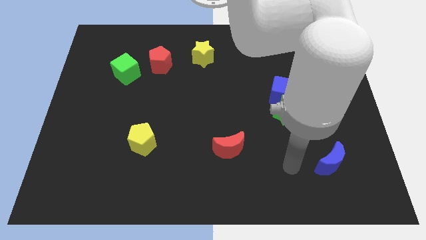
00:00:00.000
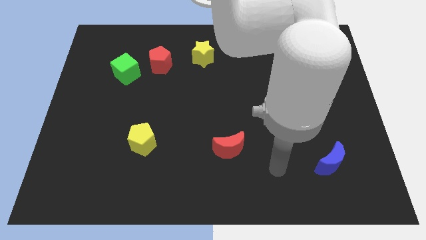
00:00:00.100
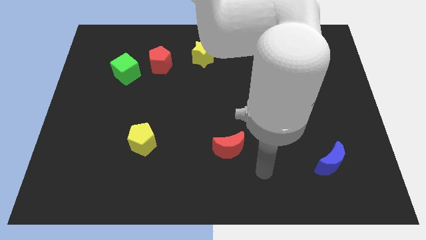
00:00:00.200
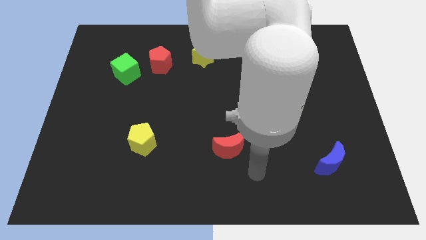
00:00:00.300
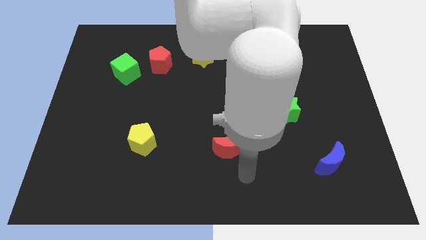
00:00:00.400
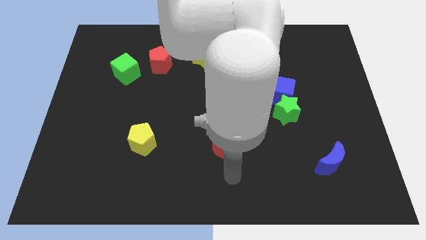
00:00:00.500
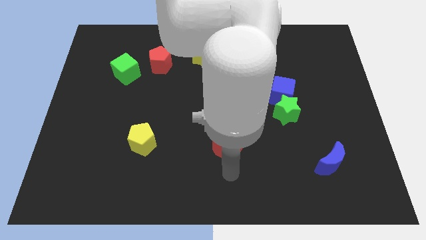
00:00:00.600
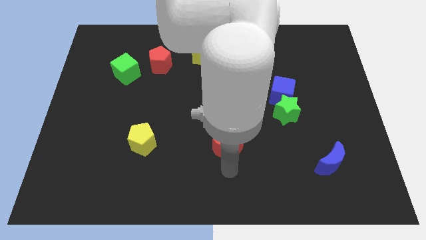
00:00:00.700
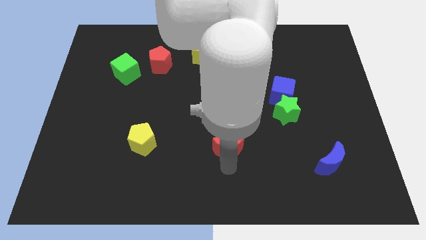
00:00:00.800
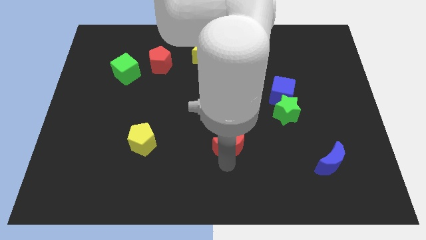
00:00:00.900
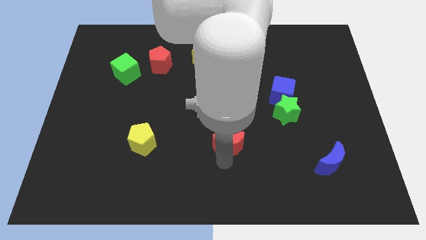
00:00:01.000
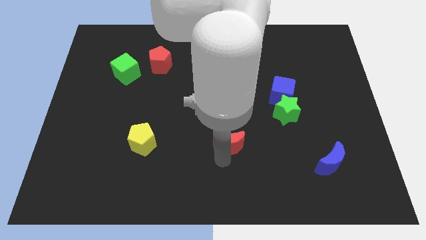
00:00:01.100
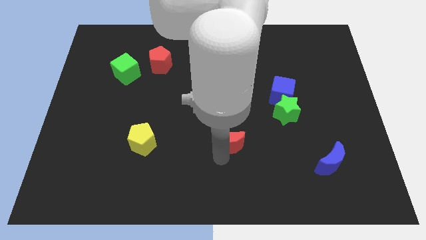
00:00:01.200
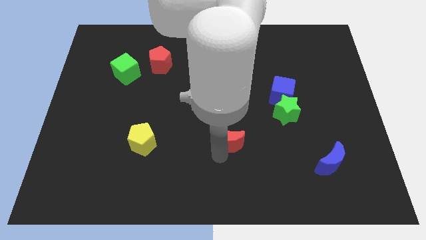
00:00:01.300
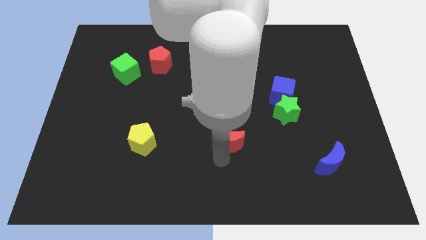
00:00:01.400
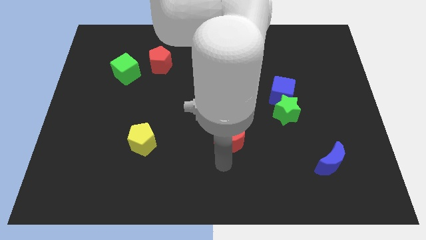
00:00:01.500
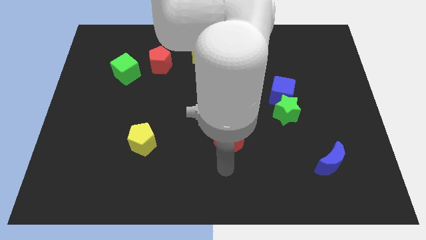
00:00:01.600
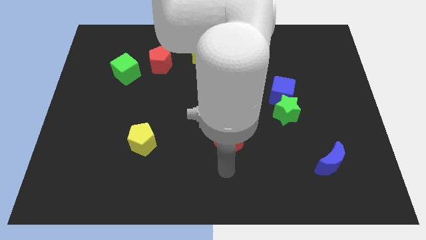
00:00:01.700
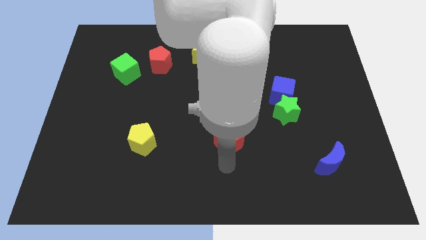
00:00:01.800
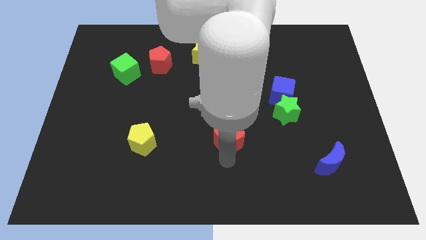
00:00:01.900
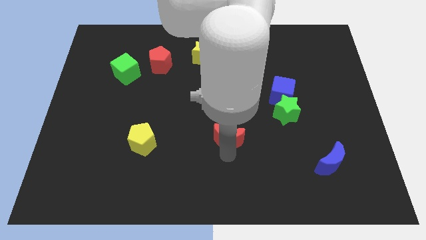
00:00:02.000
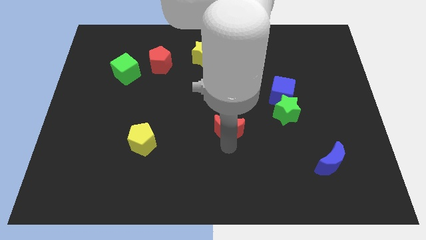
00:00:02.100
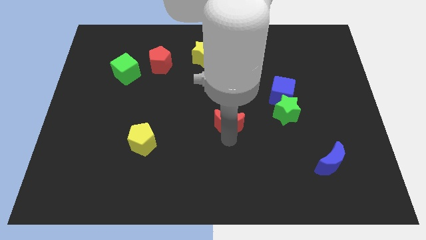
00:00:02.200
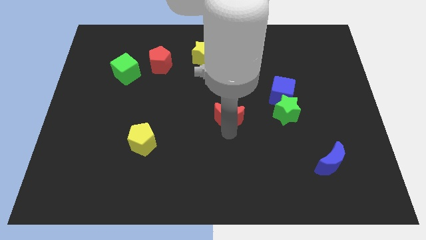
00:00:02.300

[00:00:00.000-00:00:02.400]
push the red moon a little bit upwards

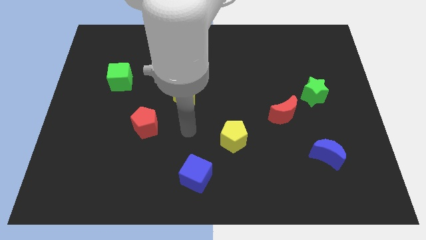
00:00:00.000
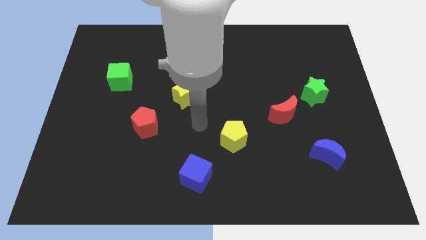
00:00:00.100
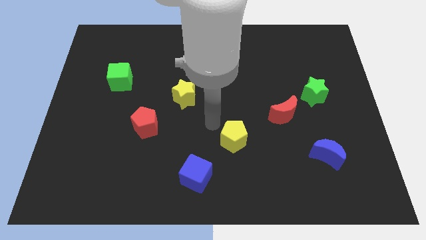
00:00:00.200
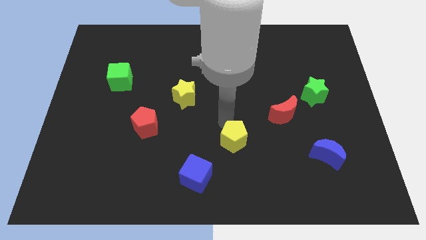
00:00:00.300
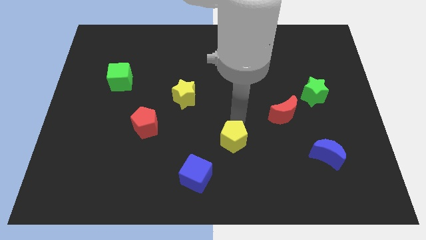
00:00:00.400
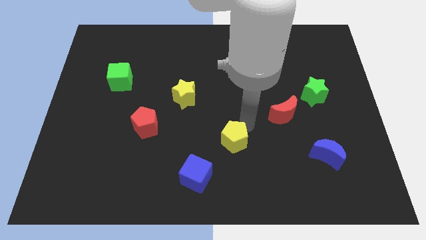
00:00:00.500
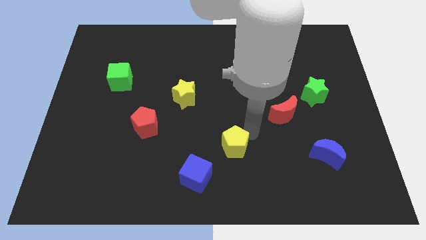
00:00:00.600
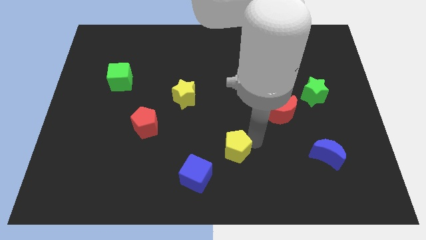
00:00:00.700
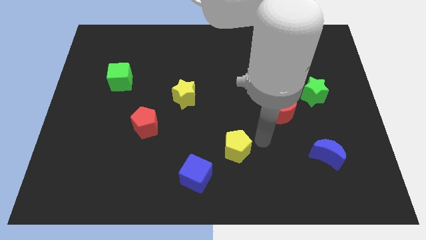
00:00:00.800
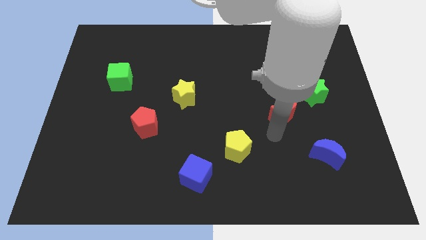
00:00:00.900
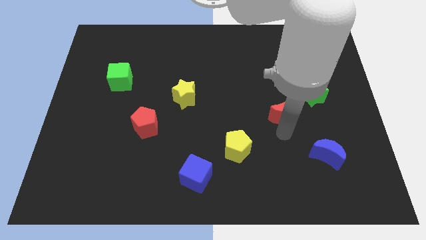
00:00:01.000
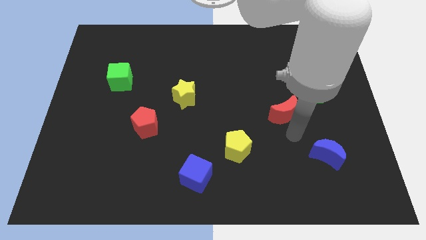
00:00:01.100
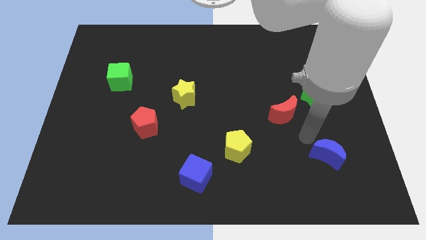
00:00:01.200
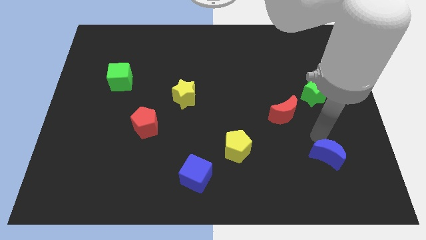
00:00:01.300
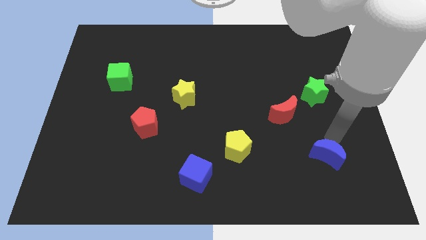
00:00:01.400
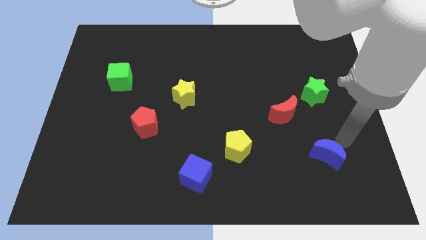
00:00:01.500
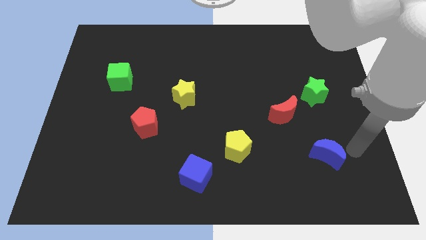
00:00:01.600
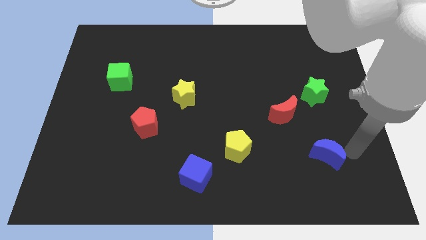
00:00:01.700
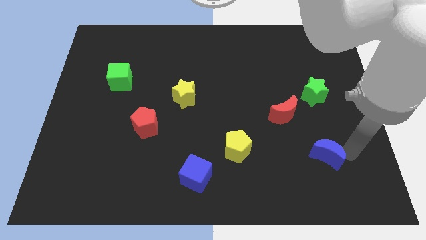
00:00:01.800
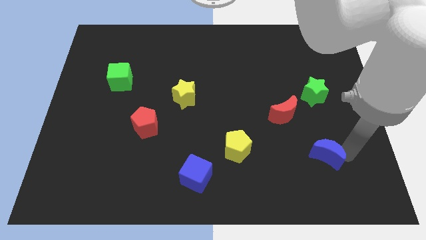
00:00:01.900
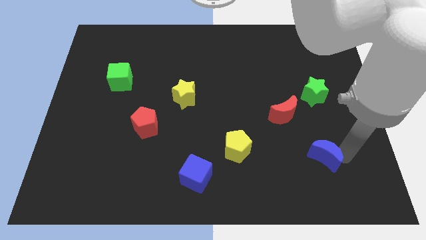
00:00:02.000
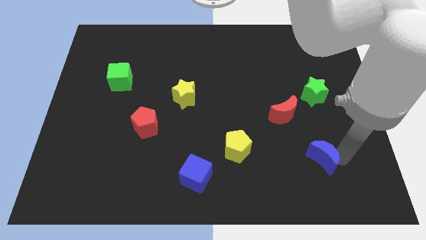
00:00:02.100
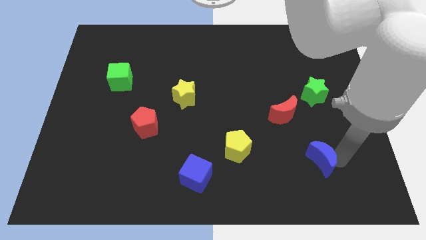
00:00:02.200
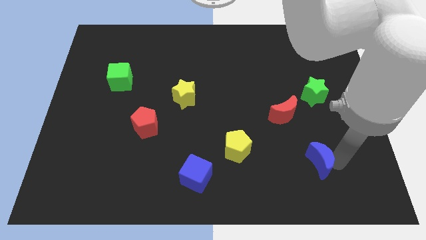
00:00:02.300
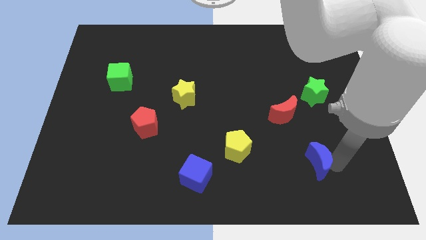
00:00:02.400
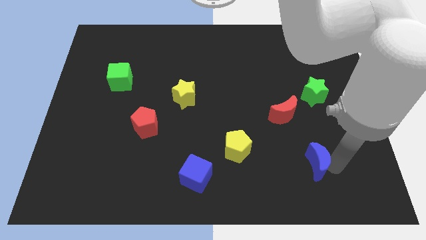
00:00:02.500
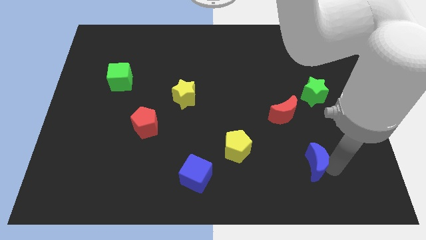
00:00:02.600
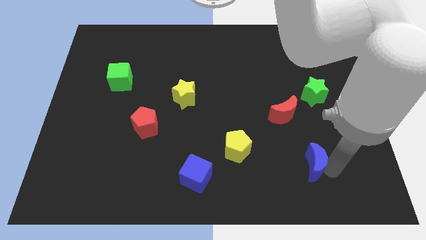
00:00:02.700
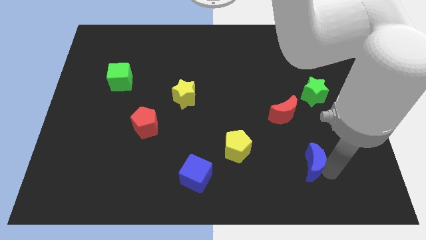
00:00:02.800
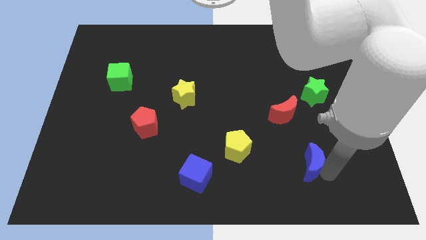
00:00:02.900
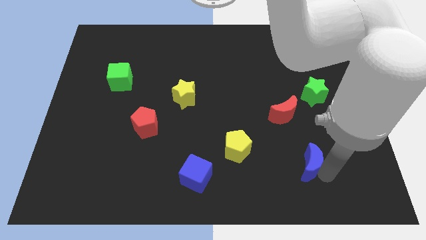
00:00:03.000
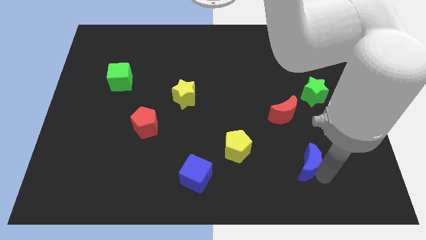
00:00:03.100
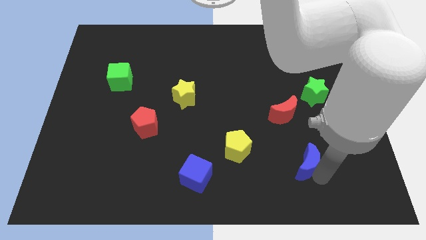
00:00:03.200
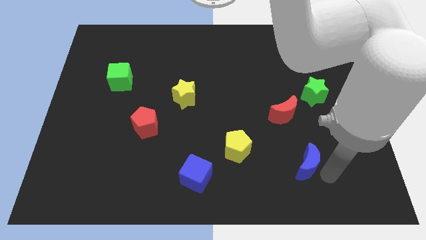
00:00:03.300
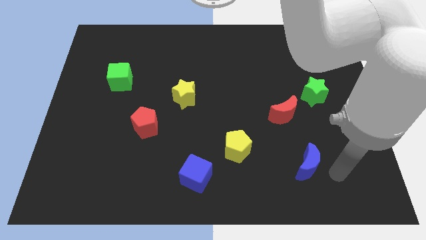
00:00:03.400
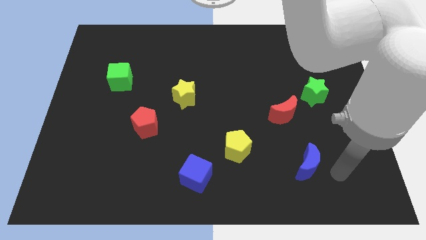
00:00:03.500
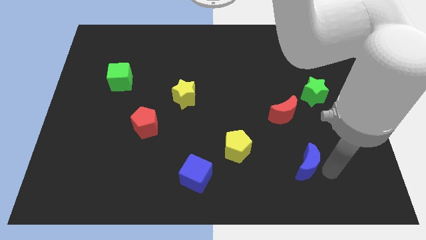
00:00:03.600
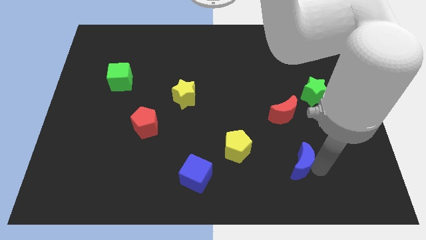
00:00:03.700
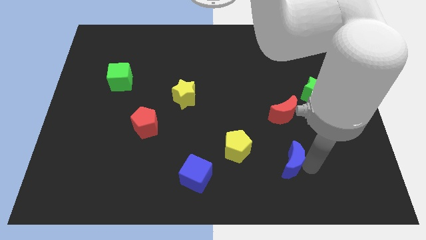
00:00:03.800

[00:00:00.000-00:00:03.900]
slide the blue moon a little left

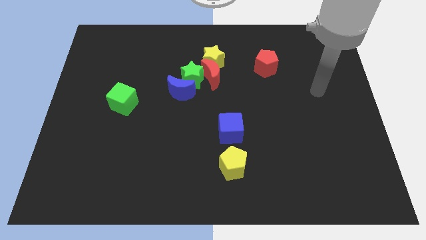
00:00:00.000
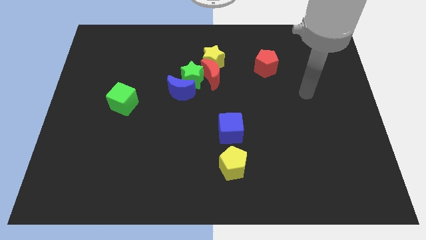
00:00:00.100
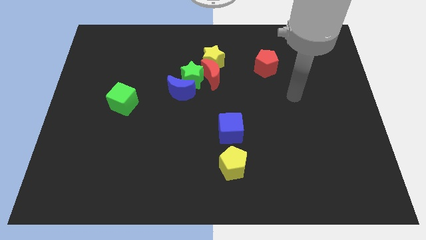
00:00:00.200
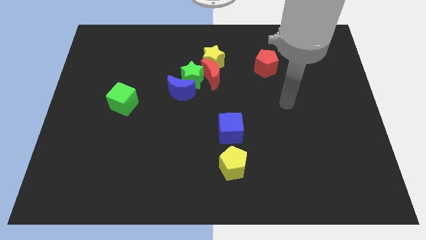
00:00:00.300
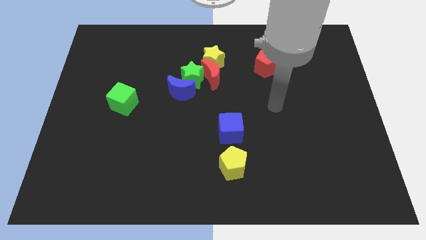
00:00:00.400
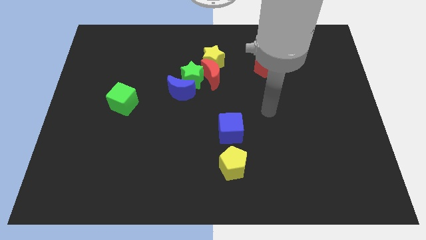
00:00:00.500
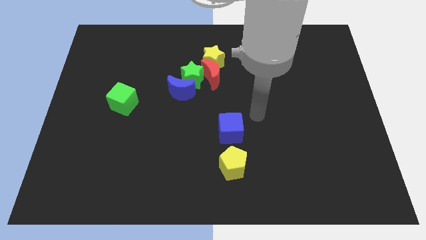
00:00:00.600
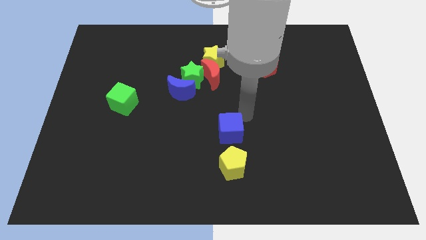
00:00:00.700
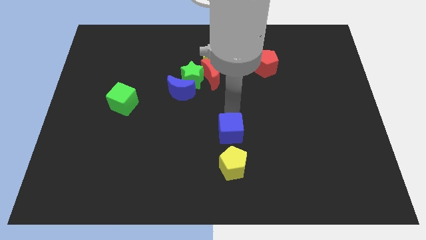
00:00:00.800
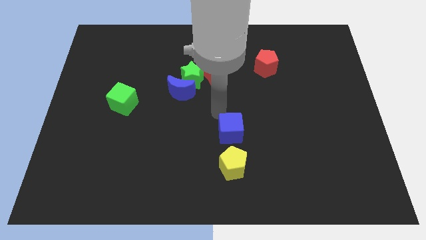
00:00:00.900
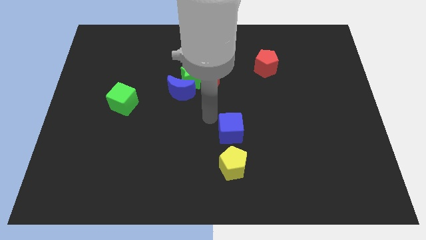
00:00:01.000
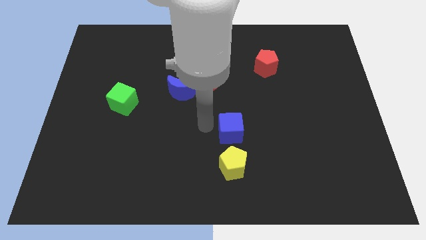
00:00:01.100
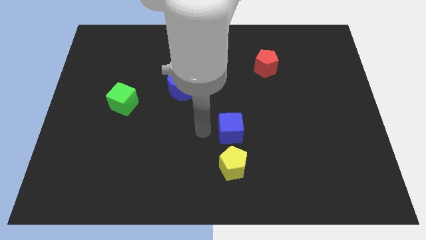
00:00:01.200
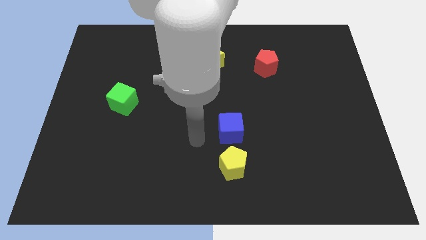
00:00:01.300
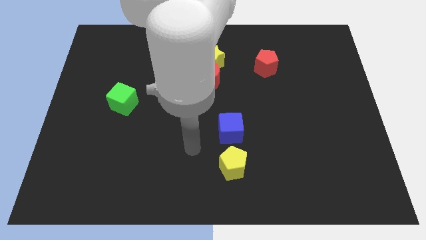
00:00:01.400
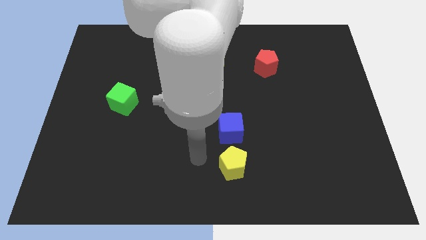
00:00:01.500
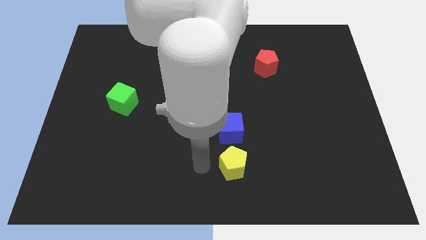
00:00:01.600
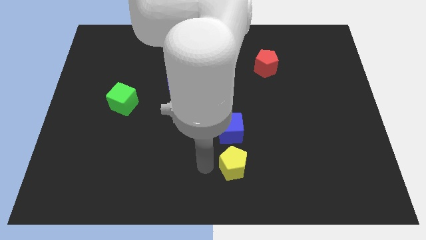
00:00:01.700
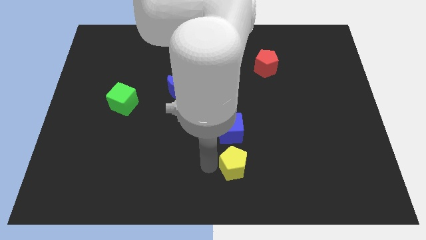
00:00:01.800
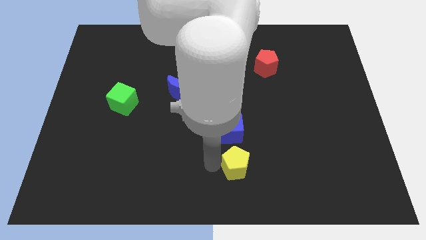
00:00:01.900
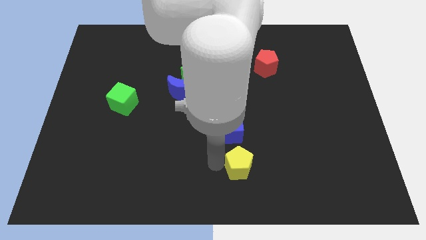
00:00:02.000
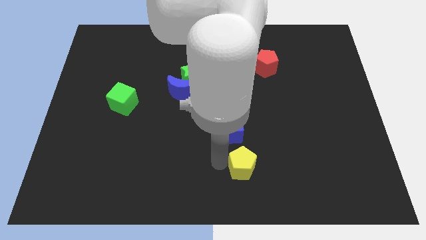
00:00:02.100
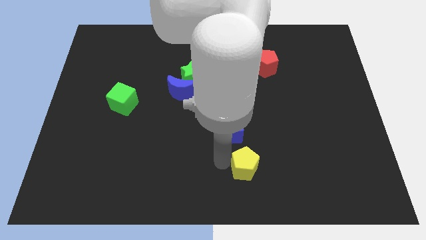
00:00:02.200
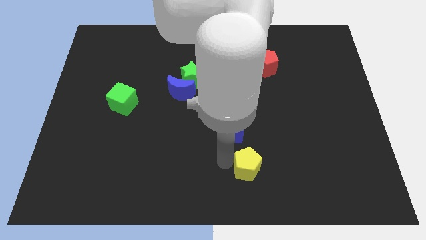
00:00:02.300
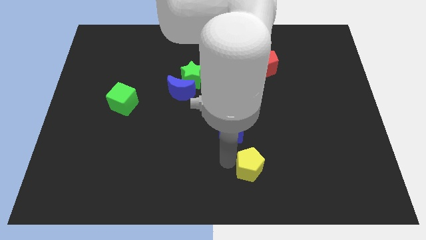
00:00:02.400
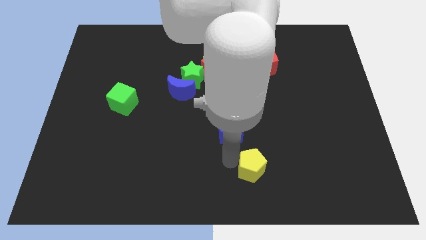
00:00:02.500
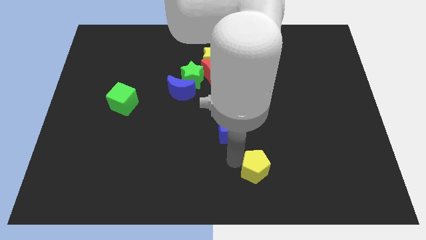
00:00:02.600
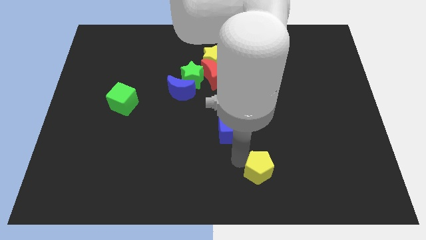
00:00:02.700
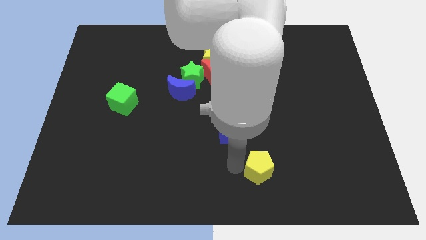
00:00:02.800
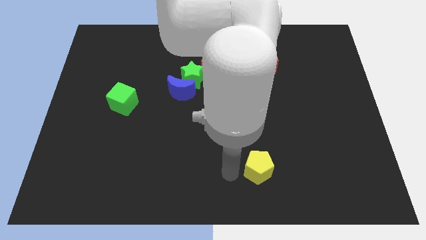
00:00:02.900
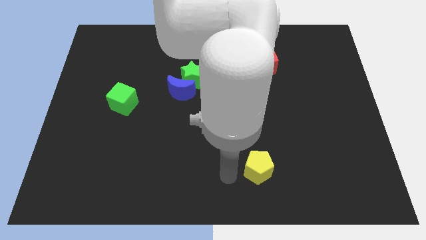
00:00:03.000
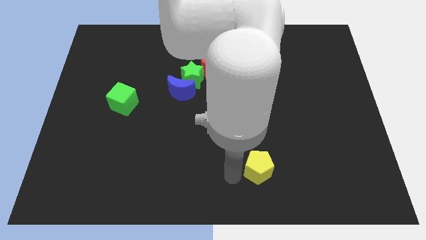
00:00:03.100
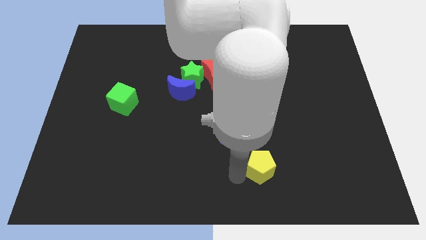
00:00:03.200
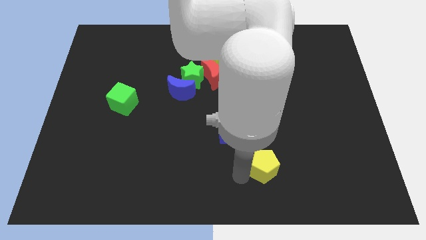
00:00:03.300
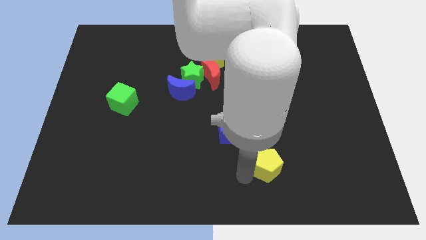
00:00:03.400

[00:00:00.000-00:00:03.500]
push the yellow pentagon to the right somewhat
